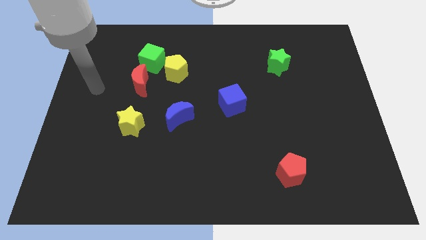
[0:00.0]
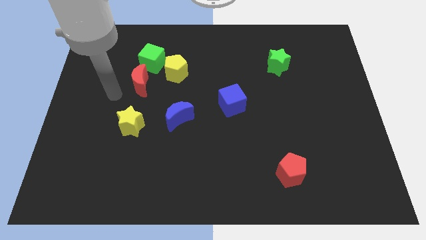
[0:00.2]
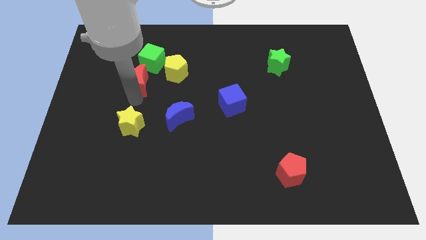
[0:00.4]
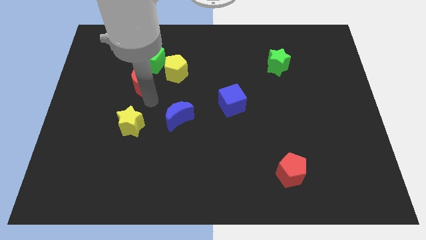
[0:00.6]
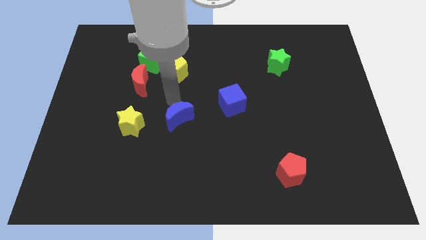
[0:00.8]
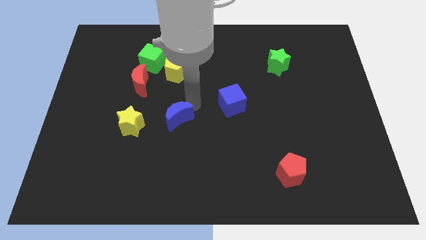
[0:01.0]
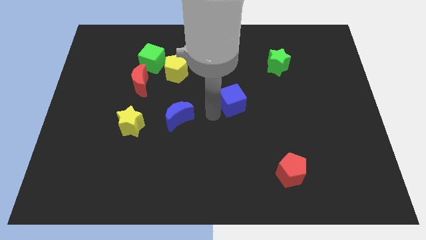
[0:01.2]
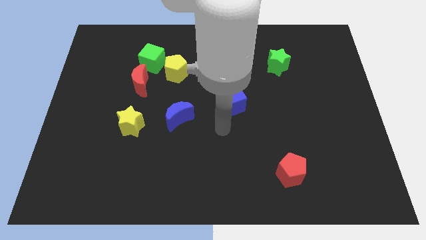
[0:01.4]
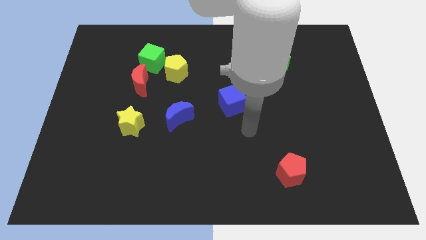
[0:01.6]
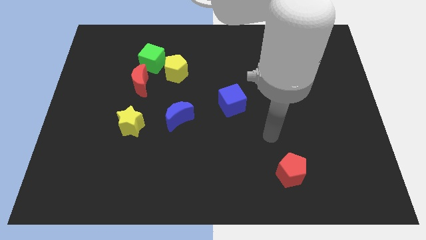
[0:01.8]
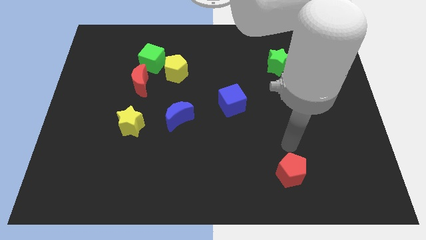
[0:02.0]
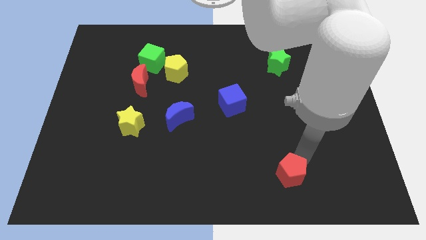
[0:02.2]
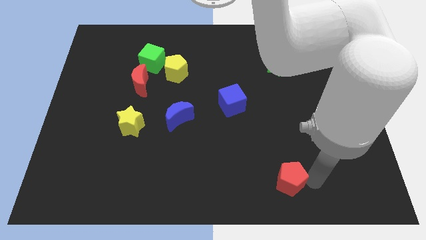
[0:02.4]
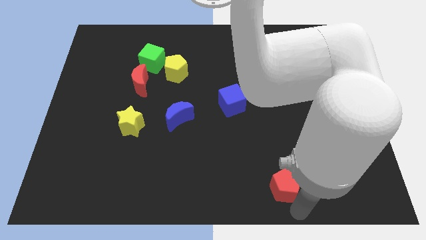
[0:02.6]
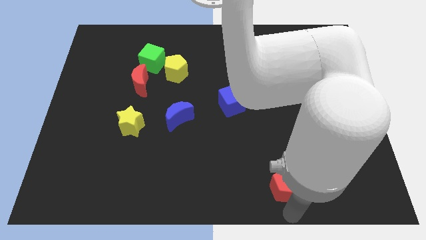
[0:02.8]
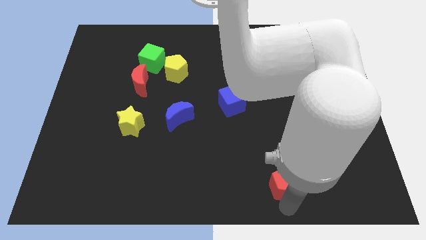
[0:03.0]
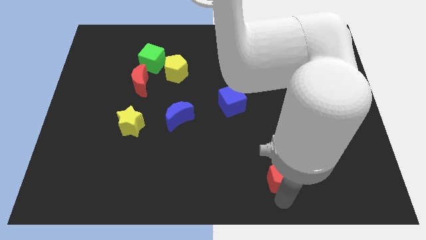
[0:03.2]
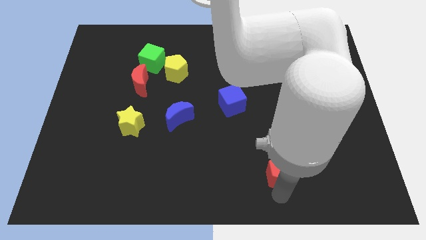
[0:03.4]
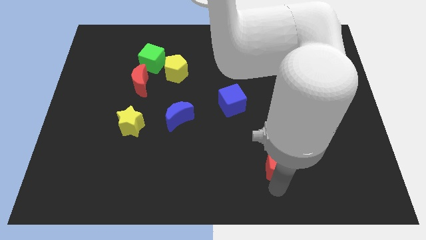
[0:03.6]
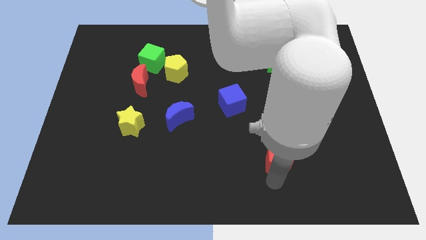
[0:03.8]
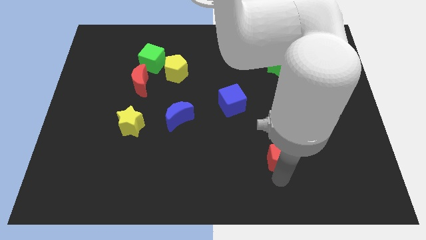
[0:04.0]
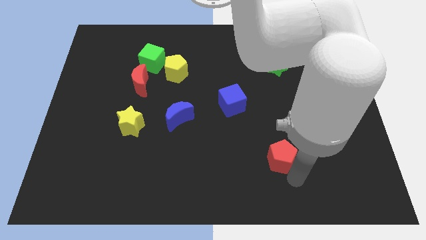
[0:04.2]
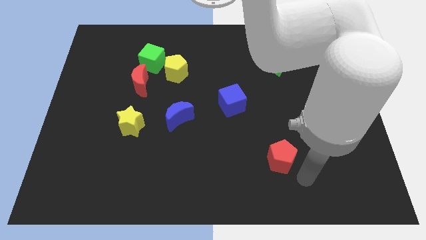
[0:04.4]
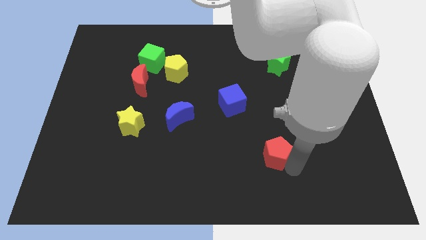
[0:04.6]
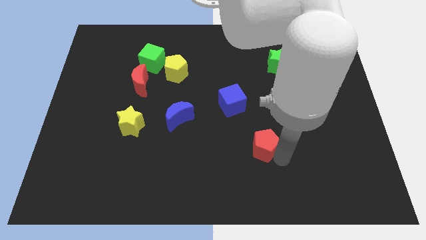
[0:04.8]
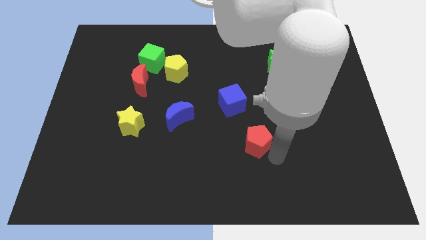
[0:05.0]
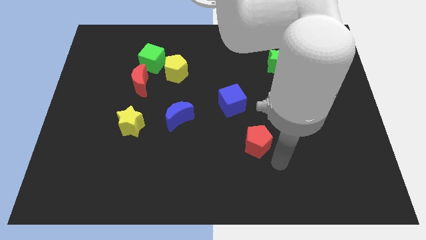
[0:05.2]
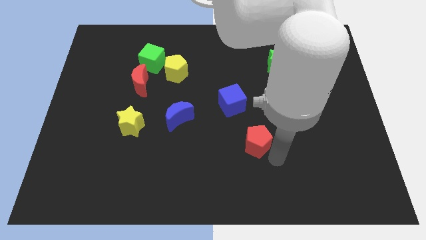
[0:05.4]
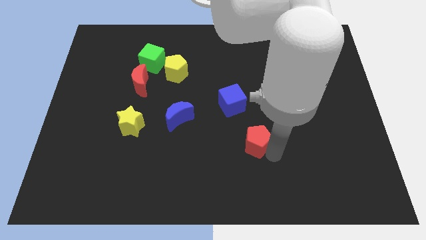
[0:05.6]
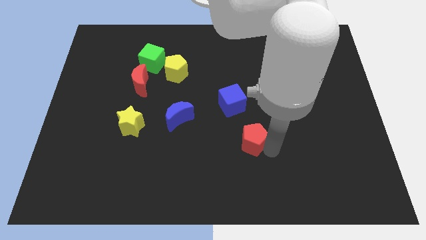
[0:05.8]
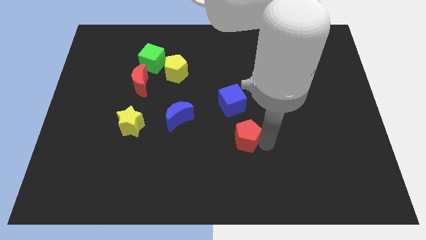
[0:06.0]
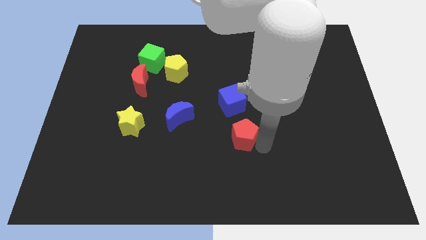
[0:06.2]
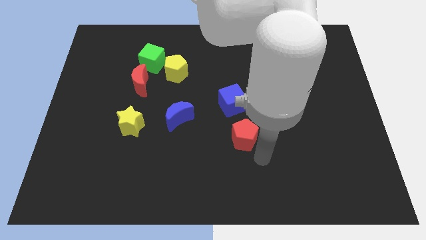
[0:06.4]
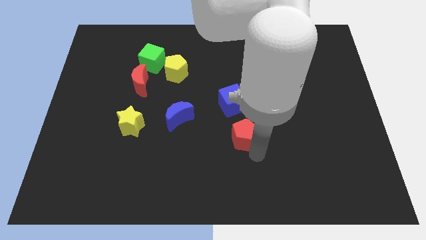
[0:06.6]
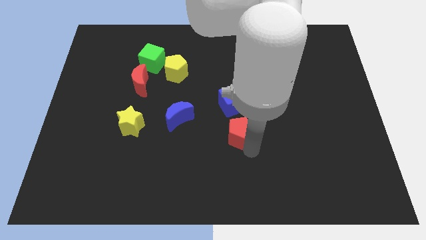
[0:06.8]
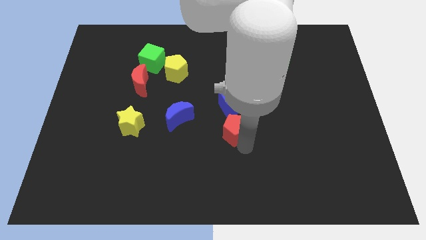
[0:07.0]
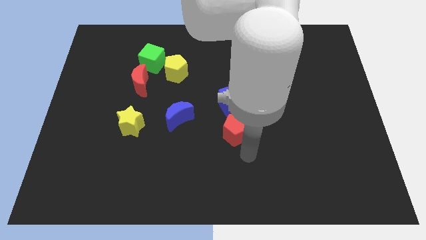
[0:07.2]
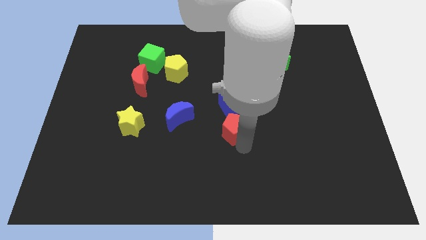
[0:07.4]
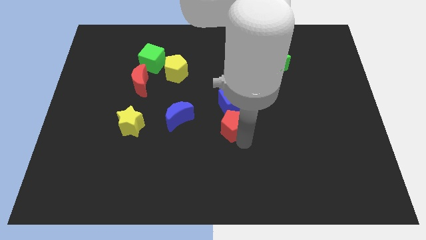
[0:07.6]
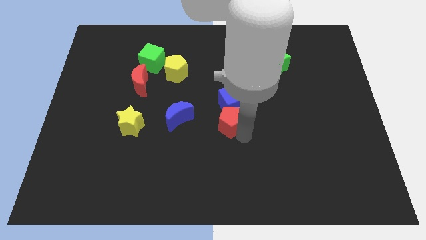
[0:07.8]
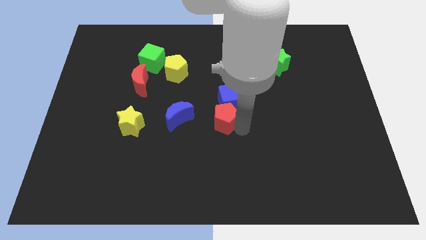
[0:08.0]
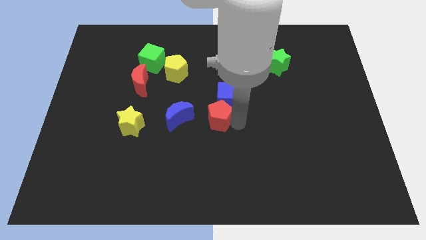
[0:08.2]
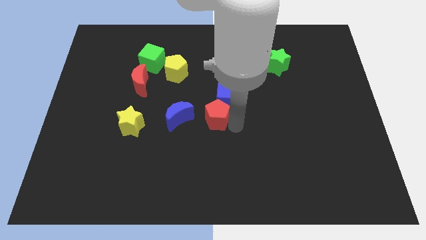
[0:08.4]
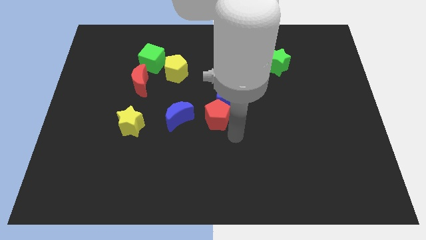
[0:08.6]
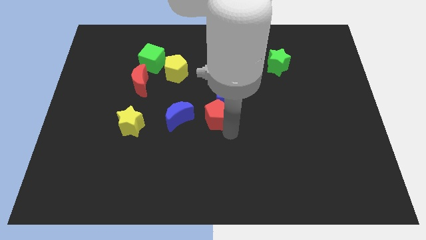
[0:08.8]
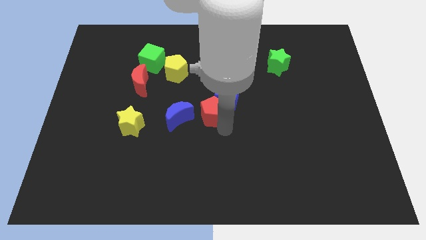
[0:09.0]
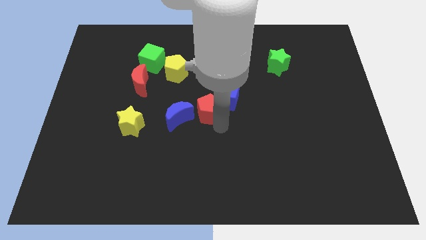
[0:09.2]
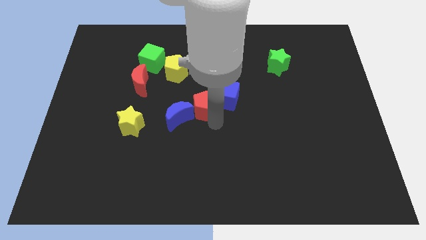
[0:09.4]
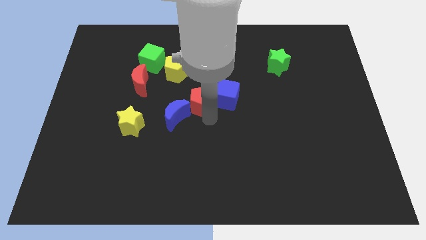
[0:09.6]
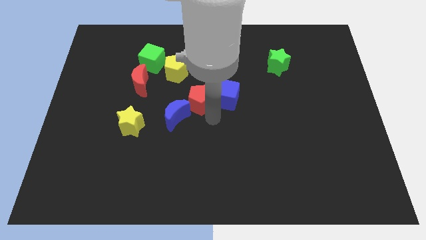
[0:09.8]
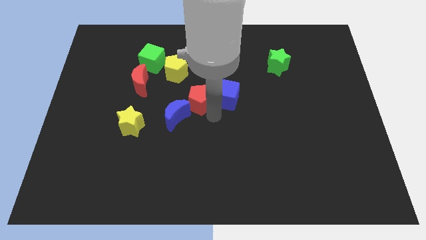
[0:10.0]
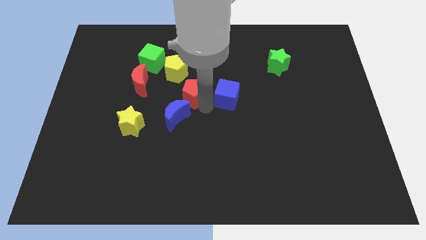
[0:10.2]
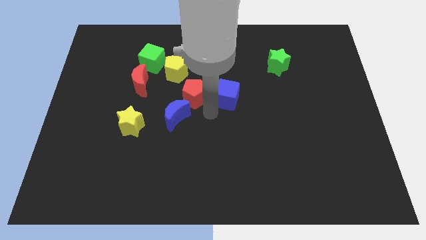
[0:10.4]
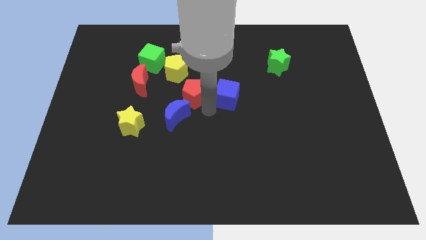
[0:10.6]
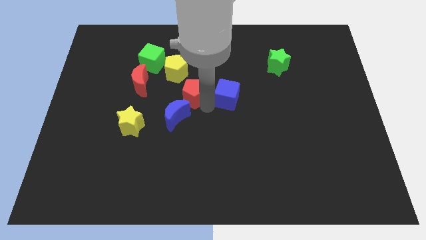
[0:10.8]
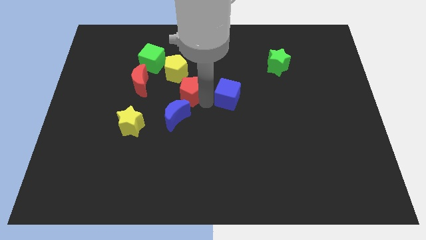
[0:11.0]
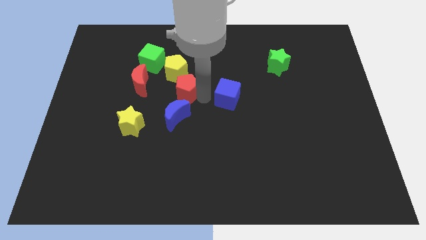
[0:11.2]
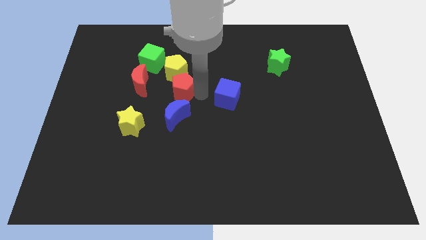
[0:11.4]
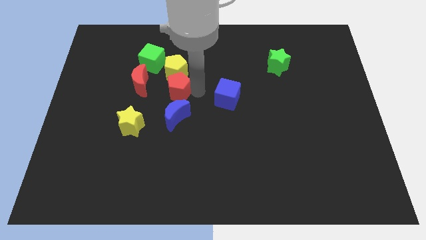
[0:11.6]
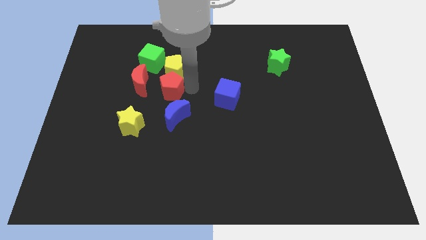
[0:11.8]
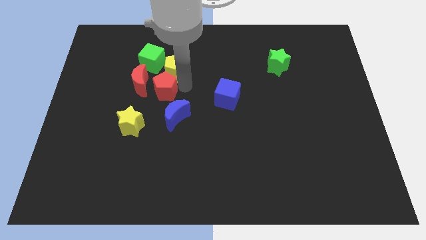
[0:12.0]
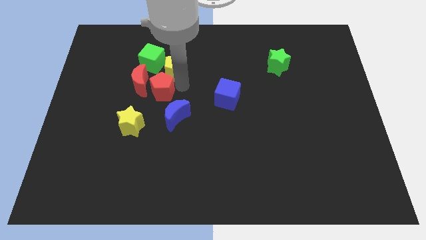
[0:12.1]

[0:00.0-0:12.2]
push the red pentagon close to the red moon

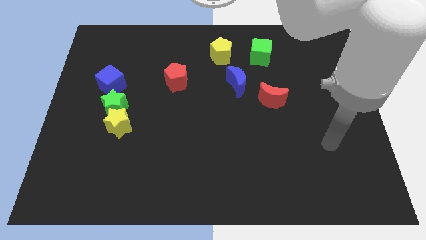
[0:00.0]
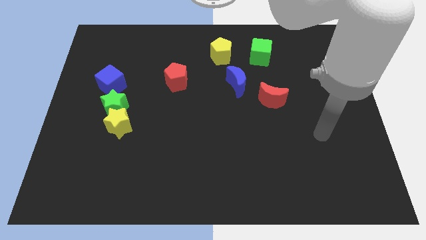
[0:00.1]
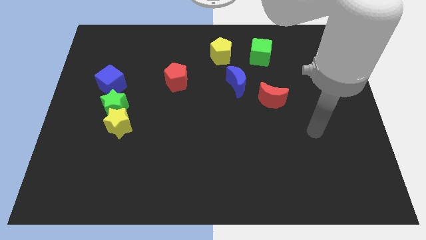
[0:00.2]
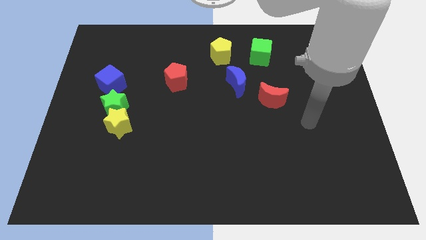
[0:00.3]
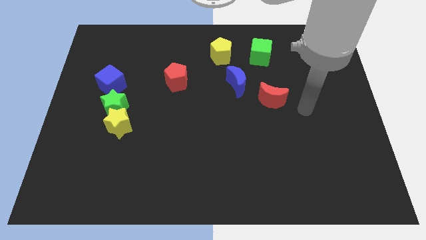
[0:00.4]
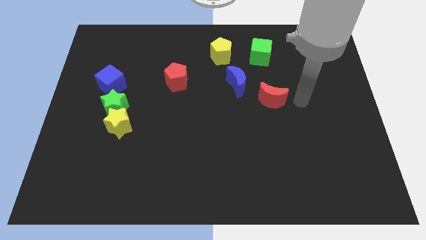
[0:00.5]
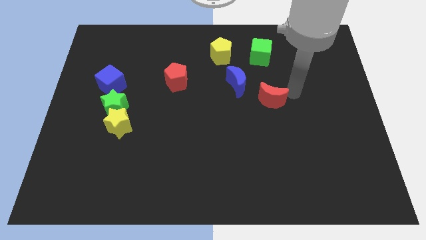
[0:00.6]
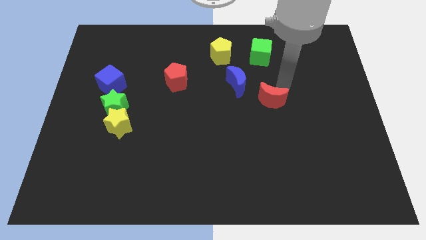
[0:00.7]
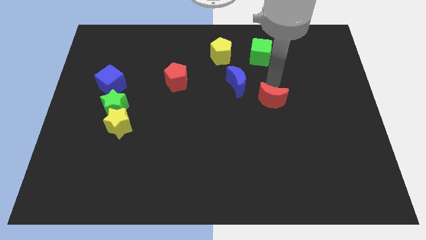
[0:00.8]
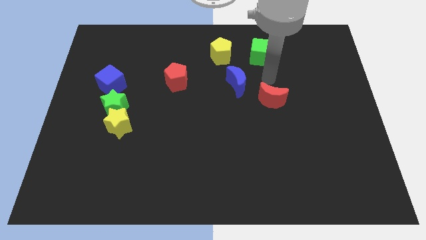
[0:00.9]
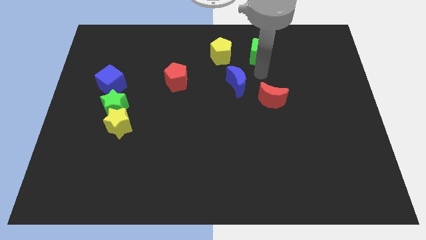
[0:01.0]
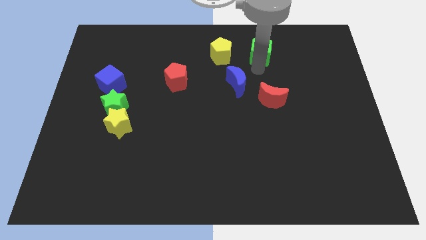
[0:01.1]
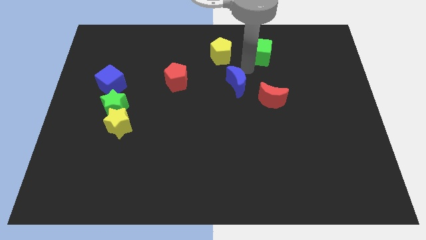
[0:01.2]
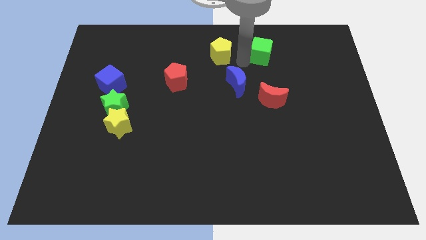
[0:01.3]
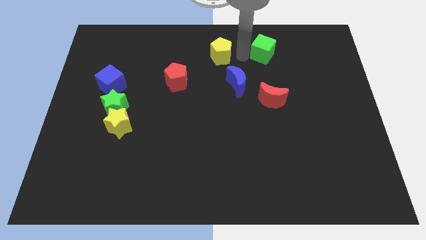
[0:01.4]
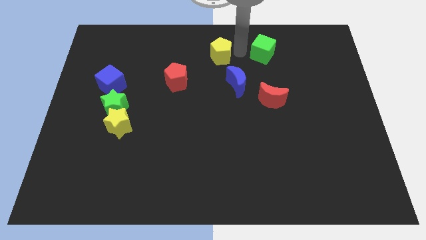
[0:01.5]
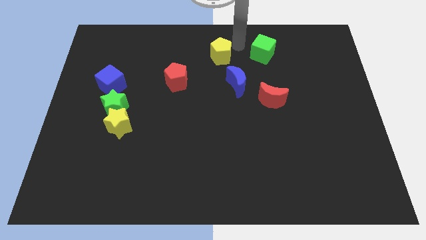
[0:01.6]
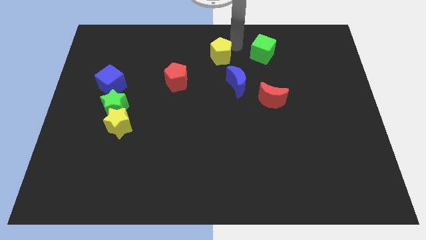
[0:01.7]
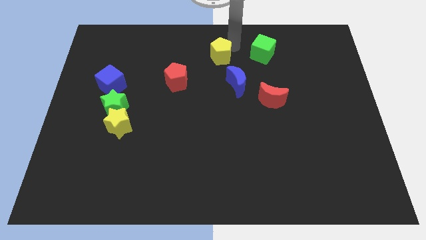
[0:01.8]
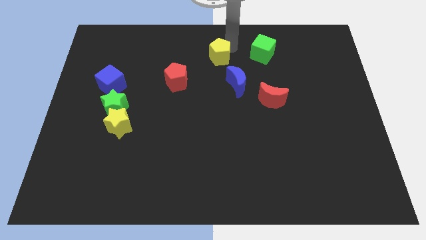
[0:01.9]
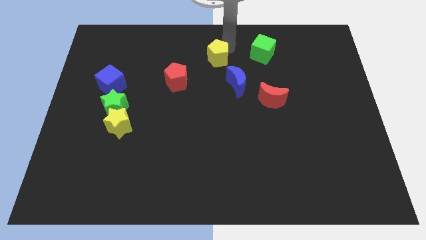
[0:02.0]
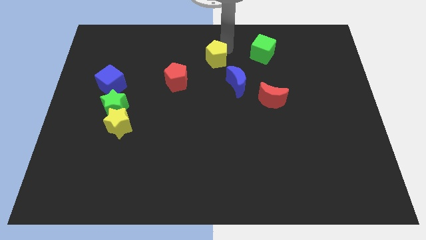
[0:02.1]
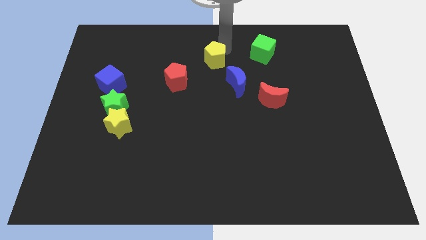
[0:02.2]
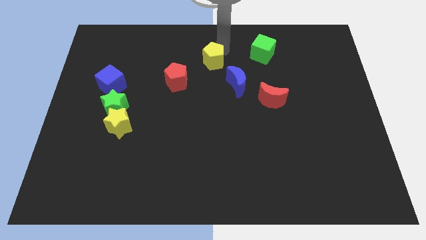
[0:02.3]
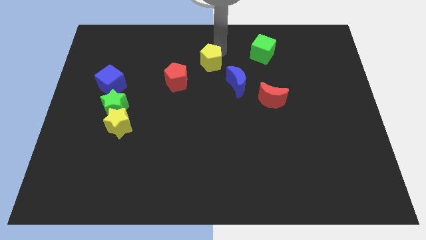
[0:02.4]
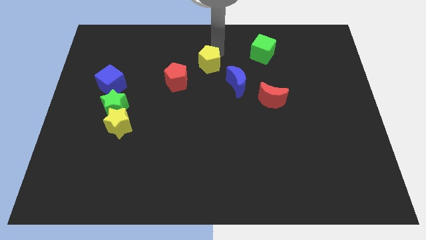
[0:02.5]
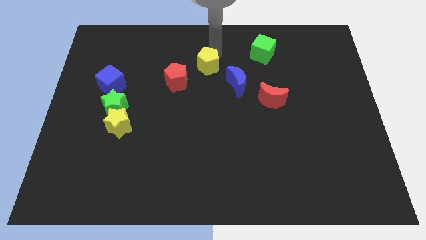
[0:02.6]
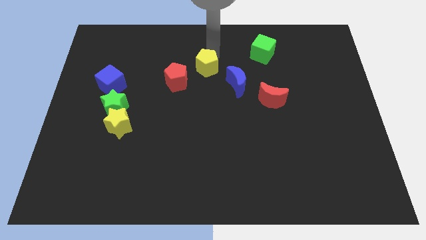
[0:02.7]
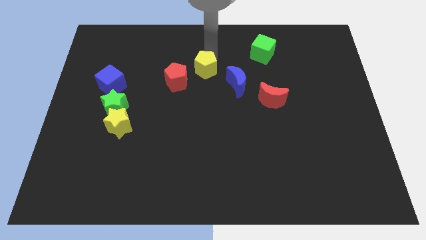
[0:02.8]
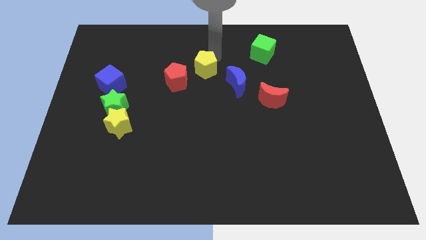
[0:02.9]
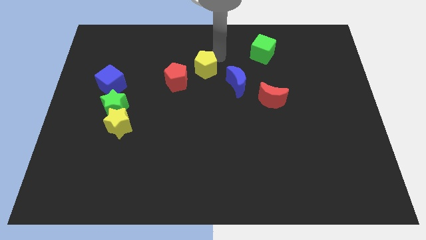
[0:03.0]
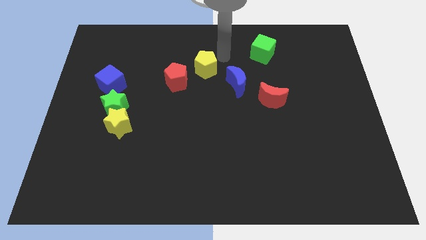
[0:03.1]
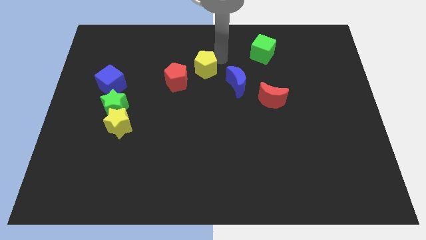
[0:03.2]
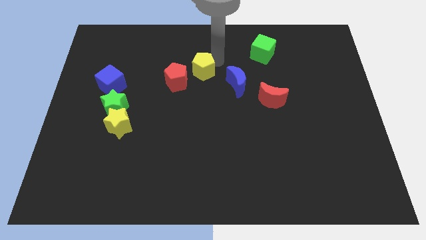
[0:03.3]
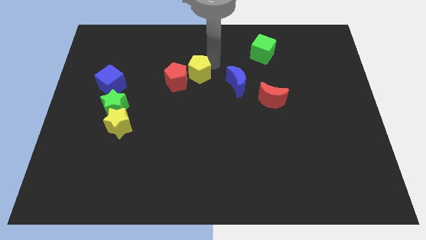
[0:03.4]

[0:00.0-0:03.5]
move the yellow pentagon to the red pentagon
